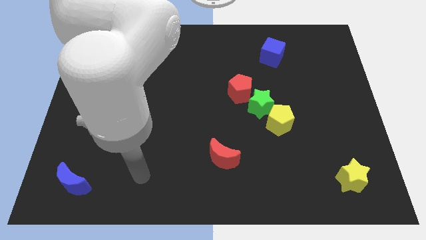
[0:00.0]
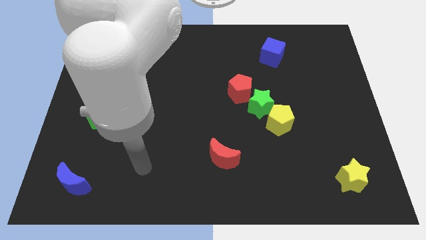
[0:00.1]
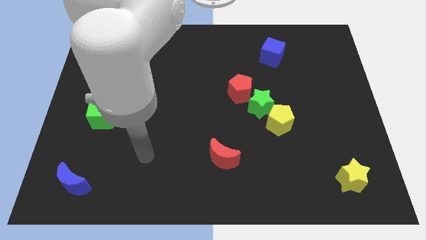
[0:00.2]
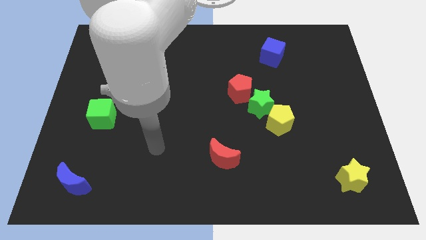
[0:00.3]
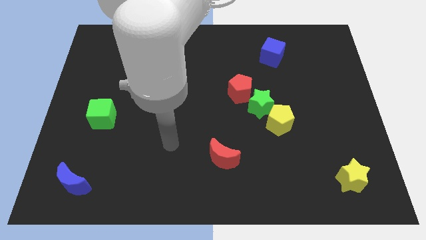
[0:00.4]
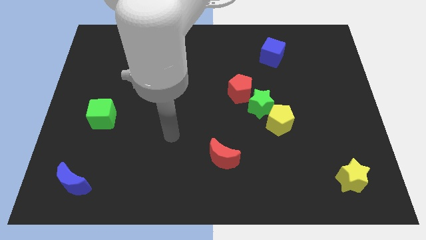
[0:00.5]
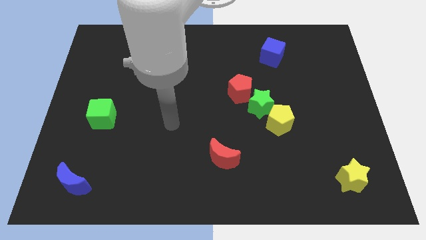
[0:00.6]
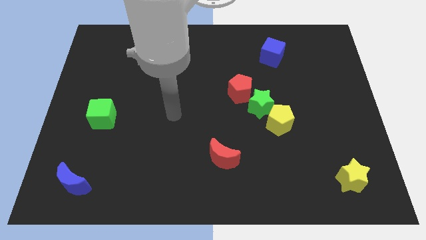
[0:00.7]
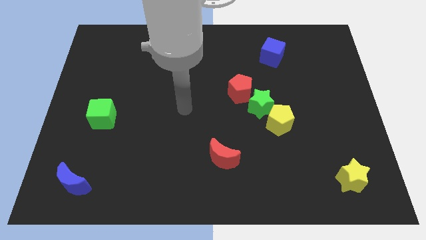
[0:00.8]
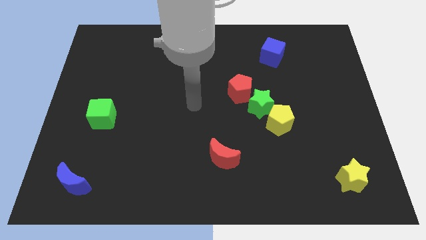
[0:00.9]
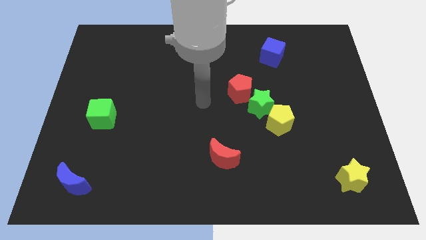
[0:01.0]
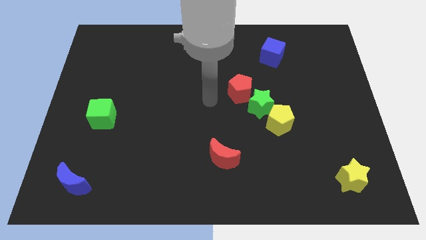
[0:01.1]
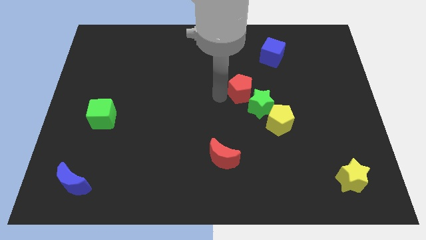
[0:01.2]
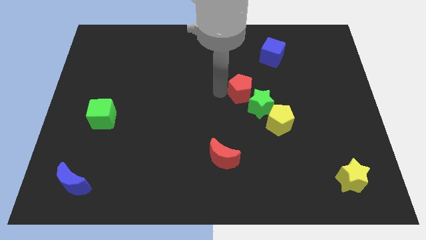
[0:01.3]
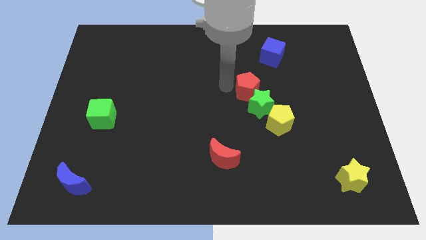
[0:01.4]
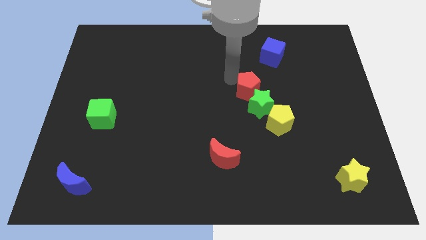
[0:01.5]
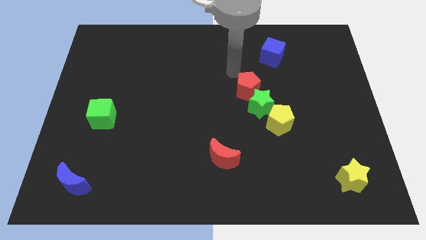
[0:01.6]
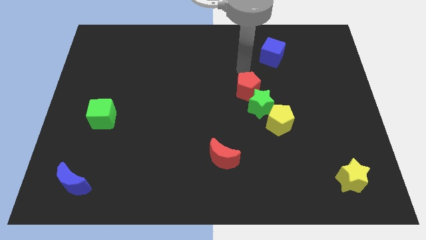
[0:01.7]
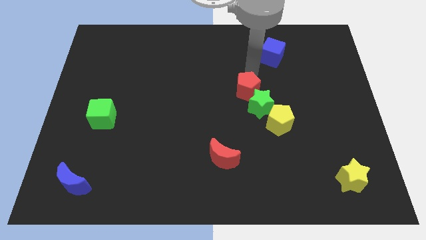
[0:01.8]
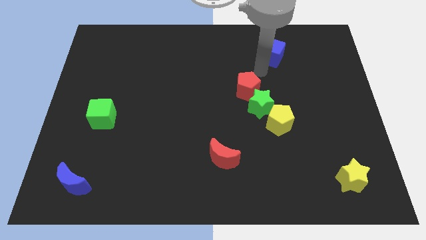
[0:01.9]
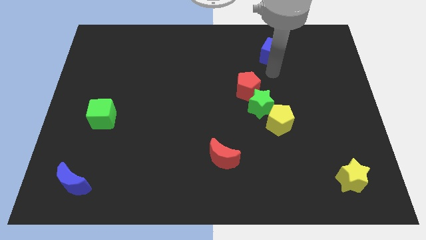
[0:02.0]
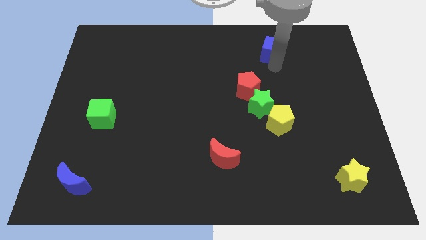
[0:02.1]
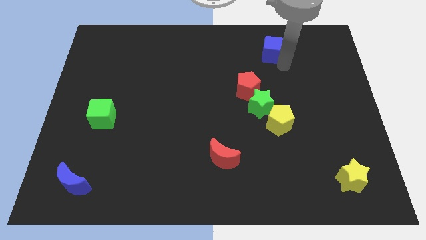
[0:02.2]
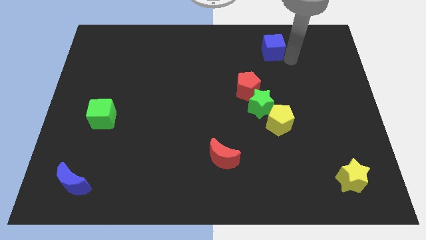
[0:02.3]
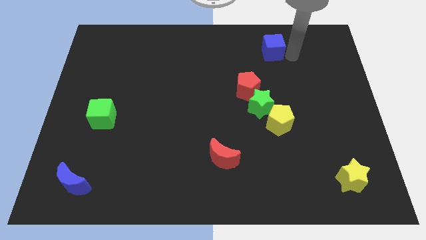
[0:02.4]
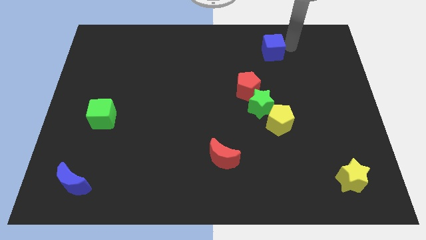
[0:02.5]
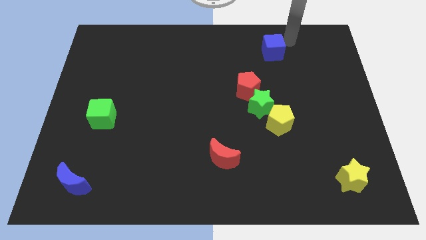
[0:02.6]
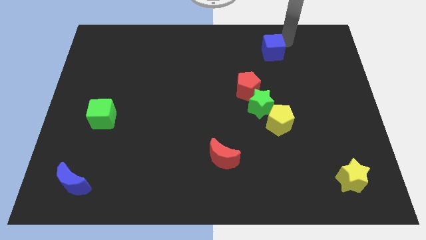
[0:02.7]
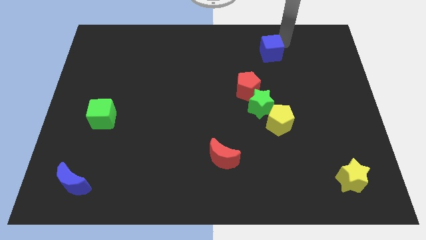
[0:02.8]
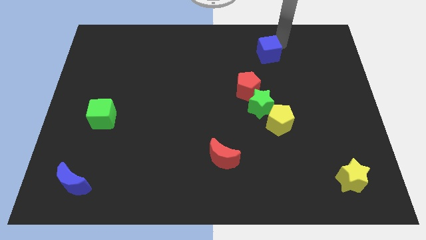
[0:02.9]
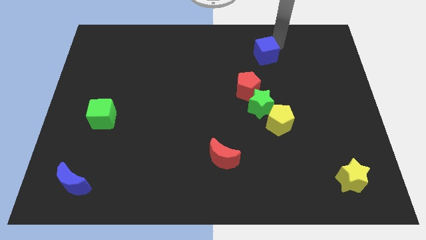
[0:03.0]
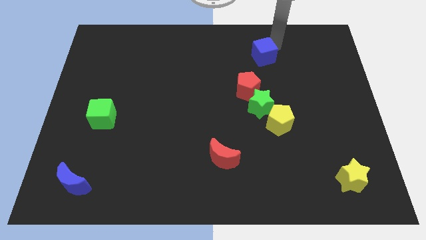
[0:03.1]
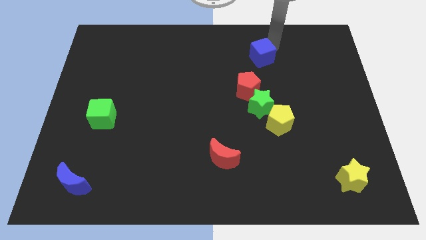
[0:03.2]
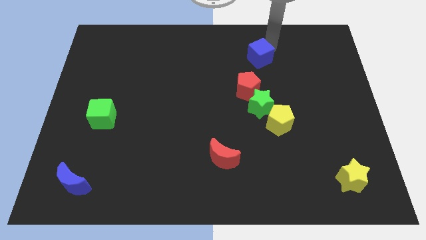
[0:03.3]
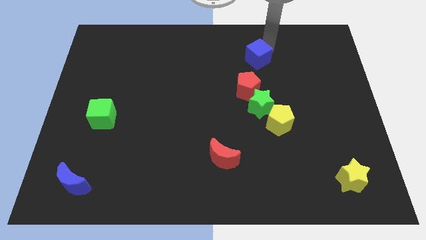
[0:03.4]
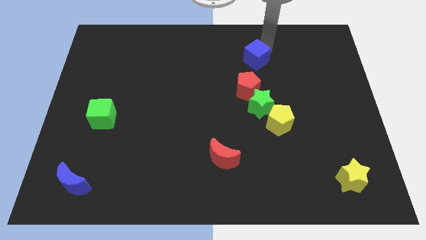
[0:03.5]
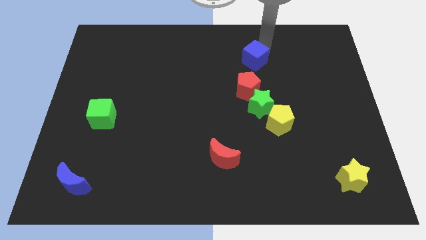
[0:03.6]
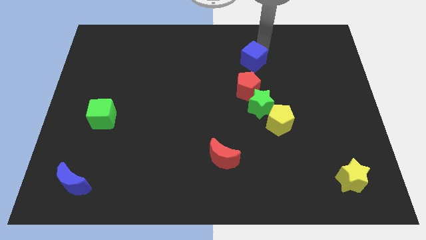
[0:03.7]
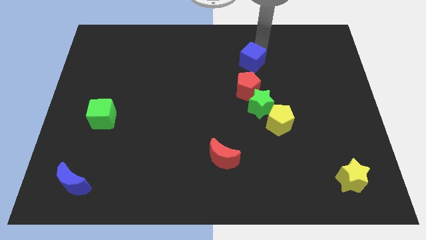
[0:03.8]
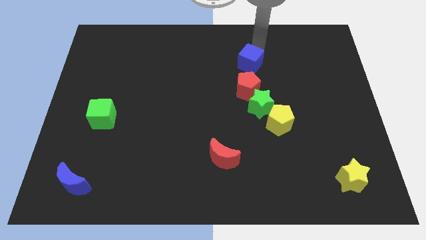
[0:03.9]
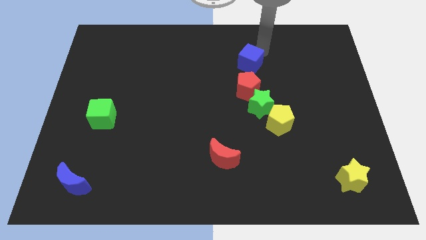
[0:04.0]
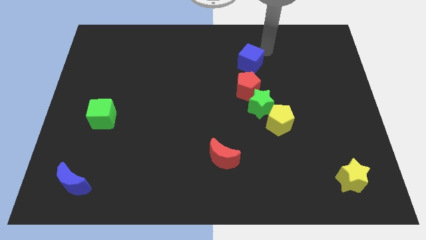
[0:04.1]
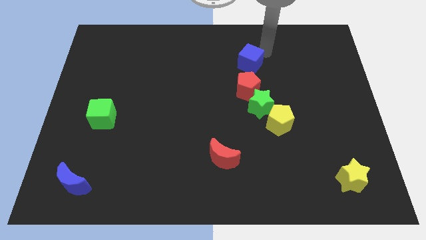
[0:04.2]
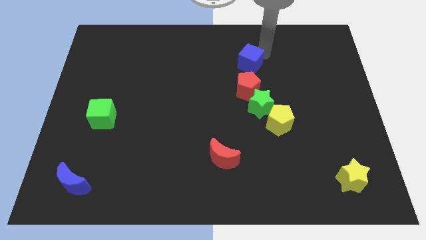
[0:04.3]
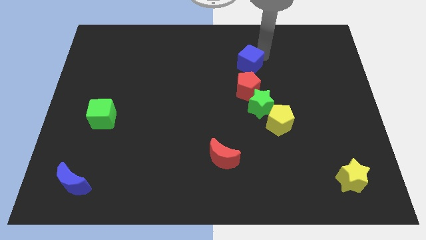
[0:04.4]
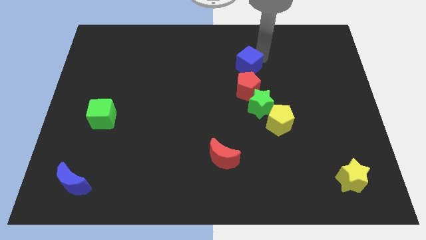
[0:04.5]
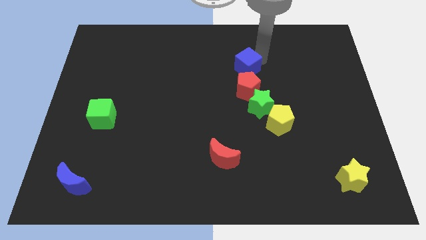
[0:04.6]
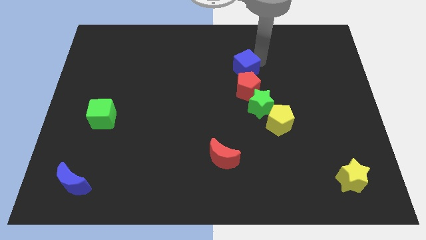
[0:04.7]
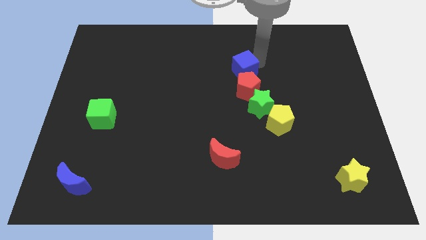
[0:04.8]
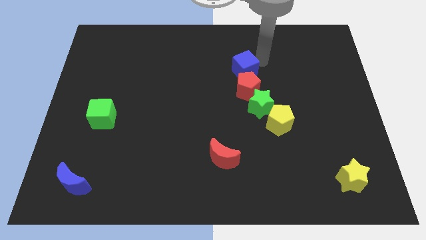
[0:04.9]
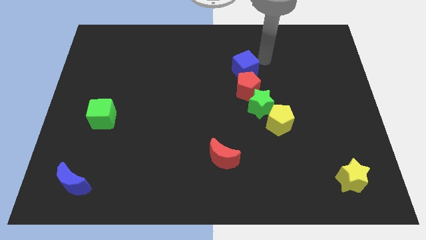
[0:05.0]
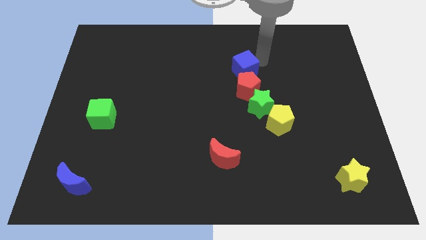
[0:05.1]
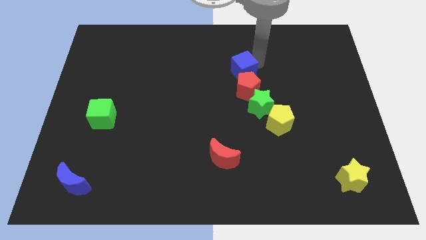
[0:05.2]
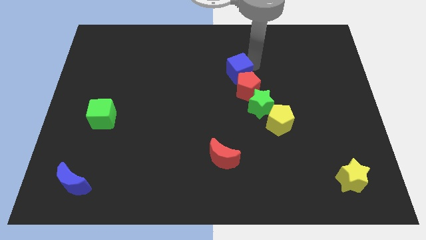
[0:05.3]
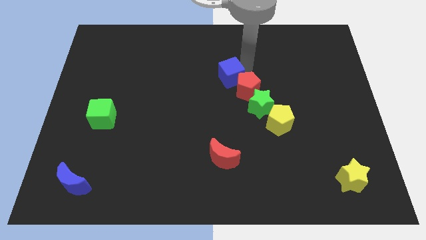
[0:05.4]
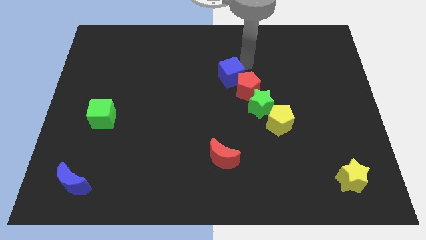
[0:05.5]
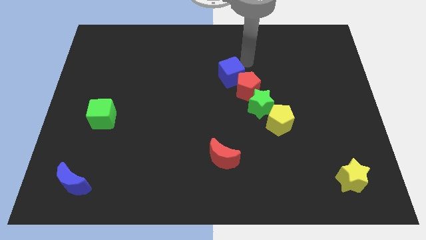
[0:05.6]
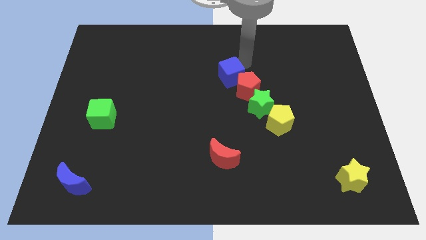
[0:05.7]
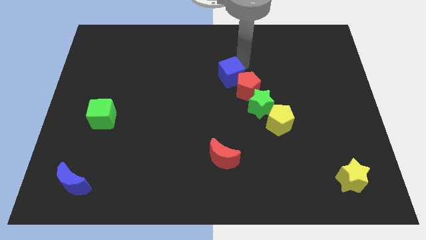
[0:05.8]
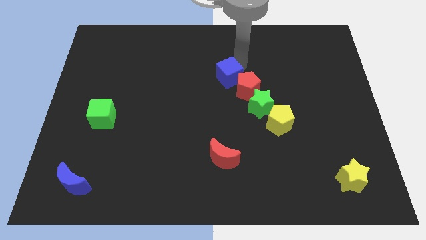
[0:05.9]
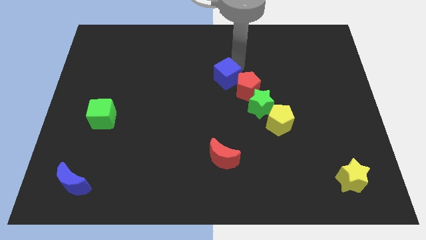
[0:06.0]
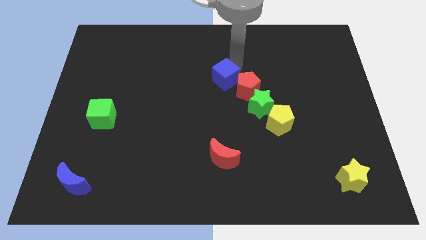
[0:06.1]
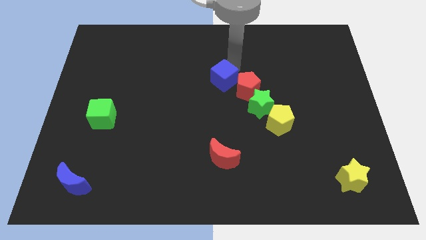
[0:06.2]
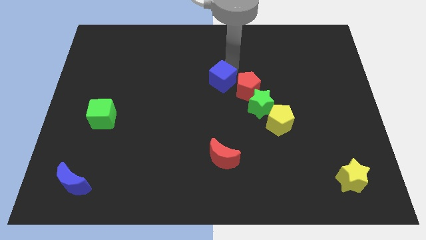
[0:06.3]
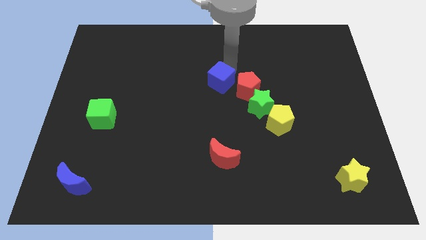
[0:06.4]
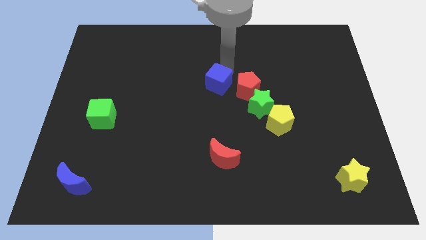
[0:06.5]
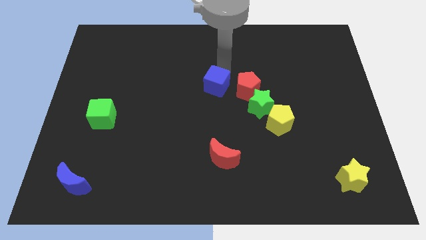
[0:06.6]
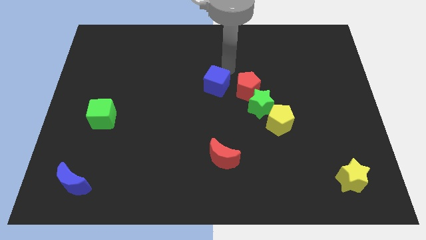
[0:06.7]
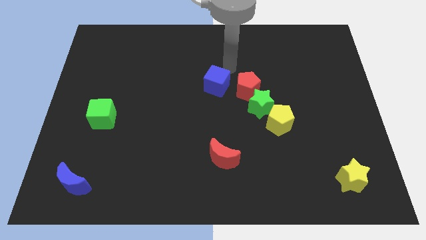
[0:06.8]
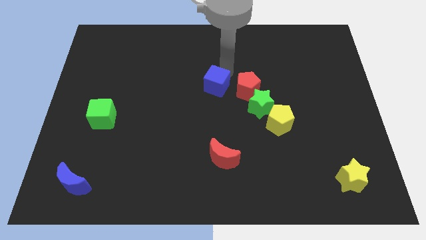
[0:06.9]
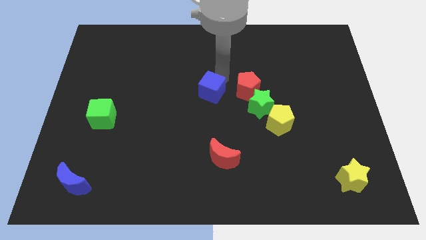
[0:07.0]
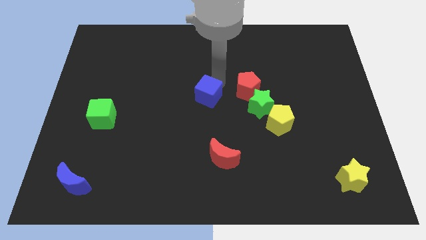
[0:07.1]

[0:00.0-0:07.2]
move the blue cube down and then left

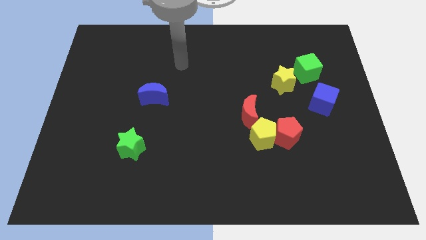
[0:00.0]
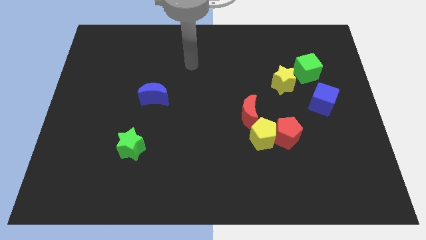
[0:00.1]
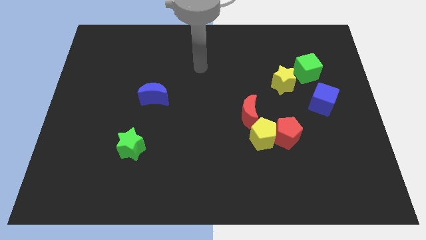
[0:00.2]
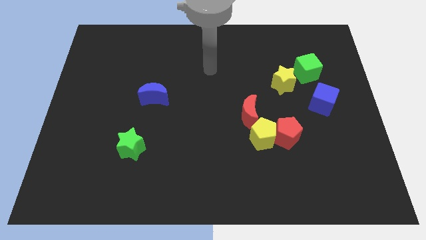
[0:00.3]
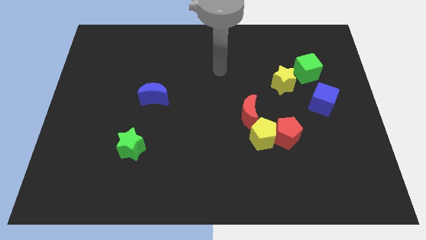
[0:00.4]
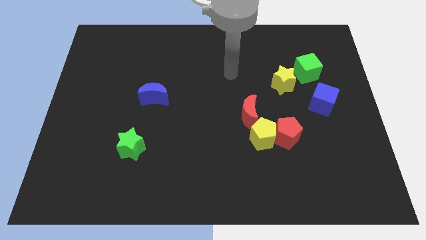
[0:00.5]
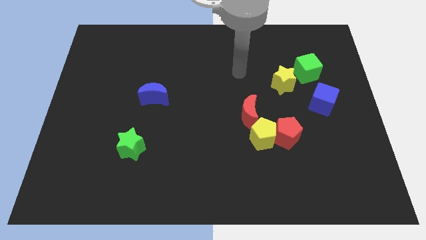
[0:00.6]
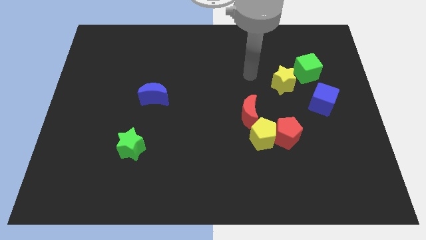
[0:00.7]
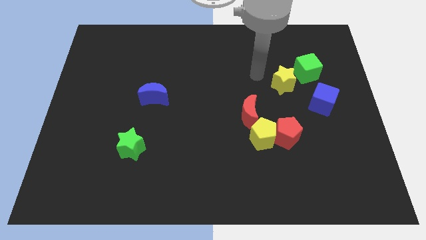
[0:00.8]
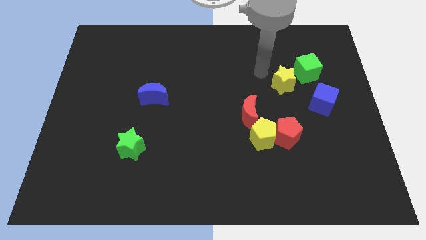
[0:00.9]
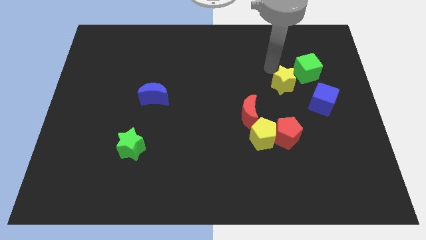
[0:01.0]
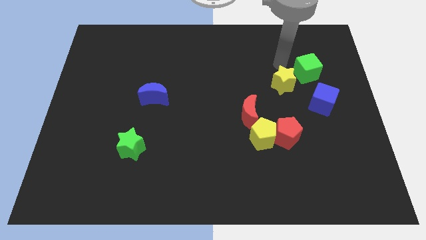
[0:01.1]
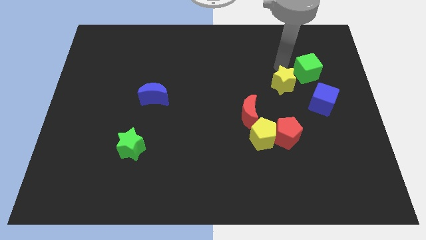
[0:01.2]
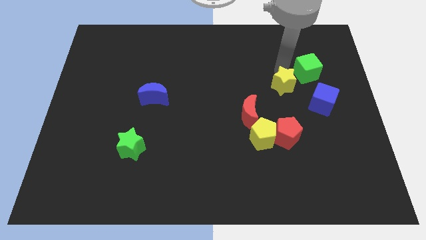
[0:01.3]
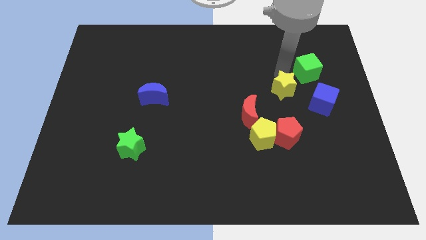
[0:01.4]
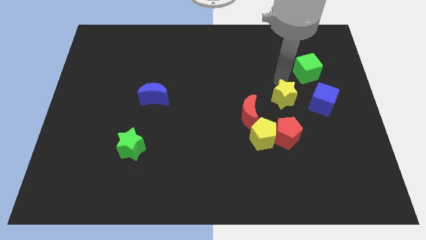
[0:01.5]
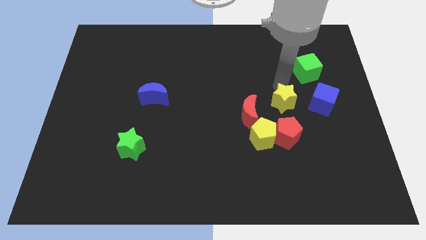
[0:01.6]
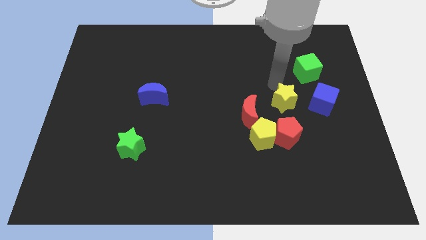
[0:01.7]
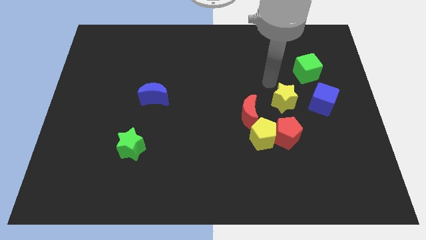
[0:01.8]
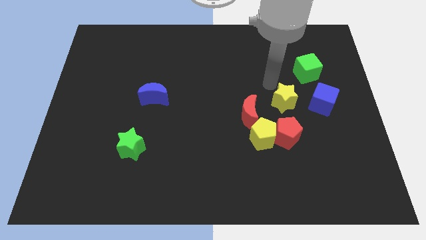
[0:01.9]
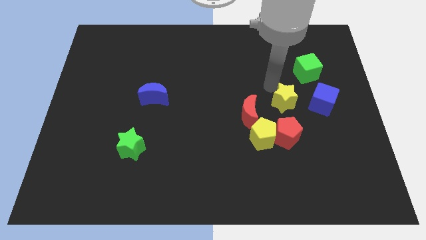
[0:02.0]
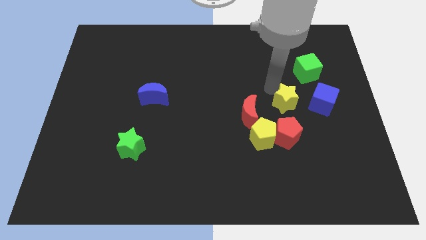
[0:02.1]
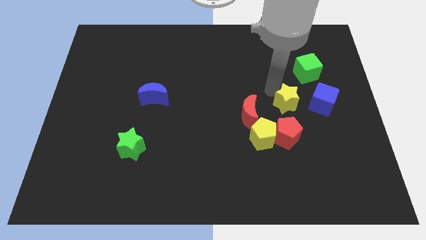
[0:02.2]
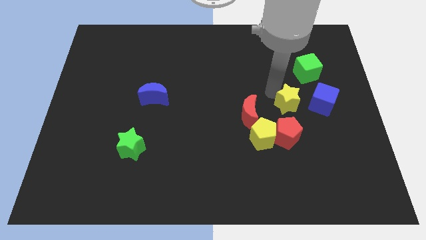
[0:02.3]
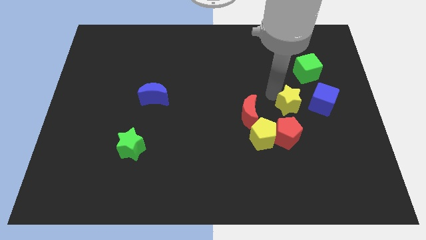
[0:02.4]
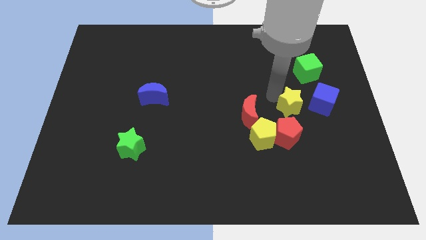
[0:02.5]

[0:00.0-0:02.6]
move the yellow star downwards a bit
